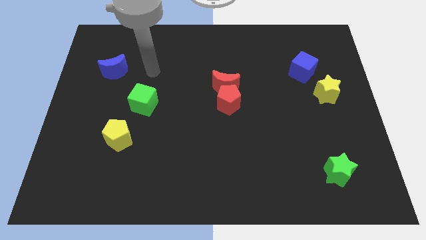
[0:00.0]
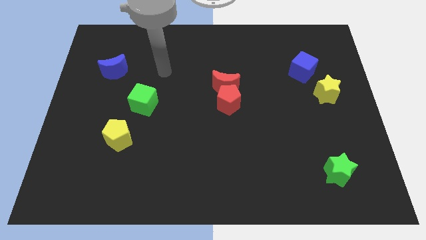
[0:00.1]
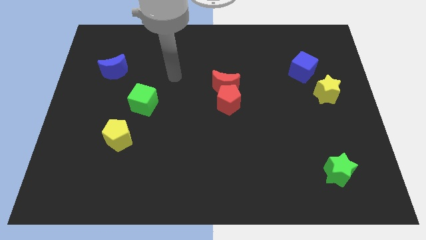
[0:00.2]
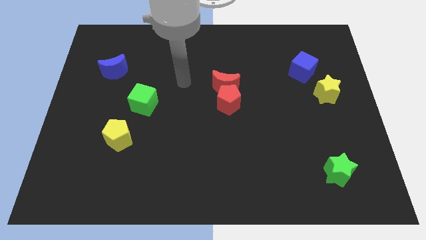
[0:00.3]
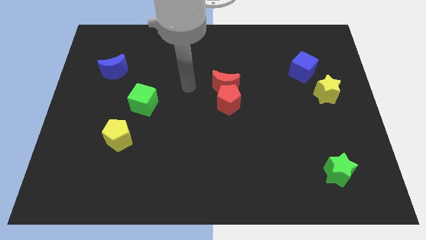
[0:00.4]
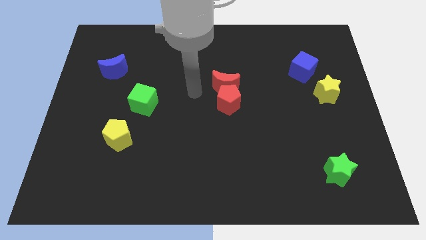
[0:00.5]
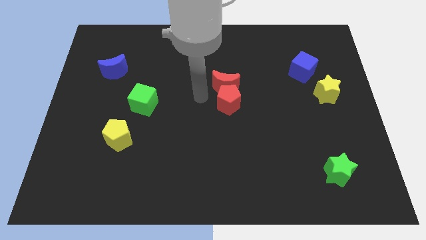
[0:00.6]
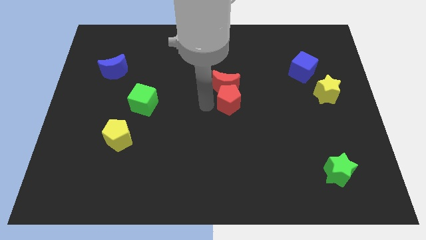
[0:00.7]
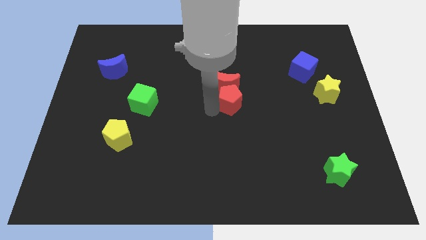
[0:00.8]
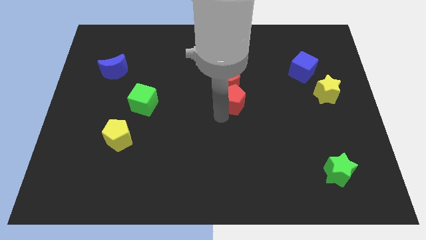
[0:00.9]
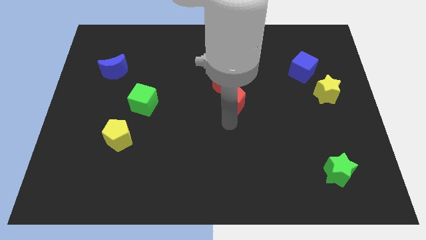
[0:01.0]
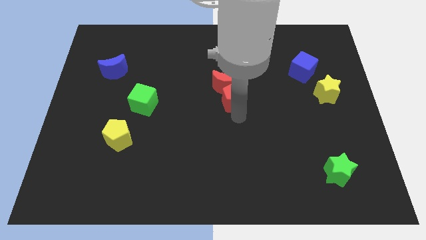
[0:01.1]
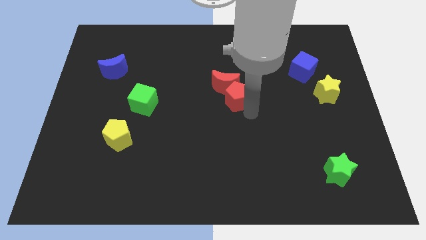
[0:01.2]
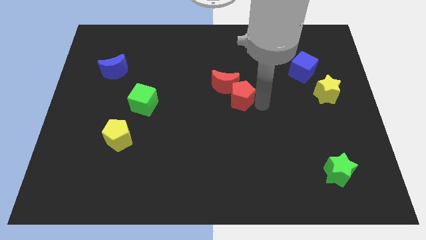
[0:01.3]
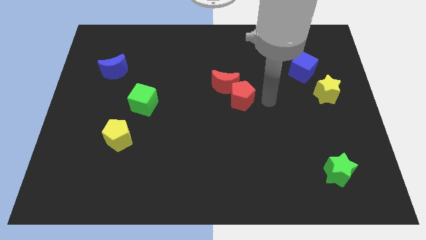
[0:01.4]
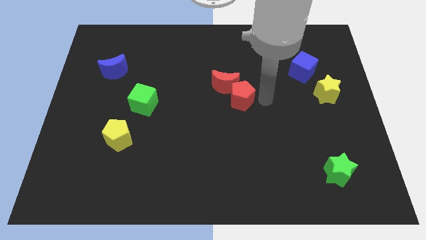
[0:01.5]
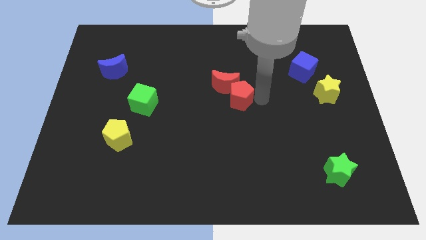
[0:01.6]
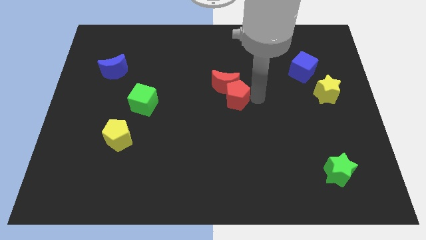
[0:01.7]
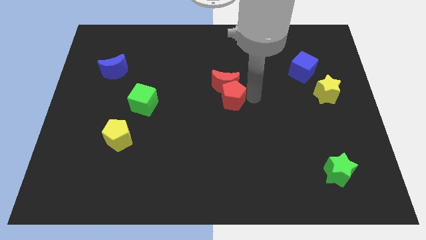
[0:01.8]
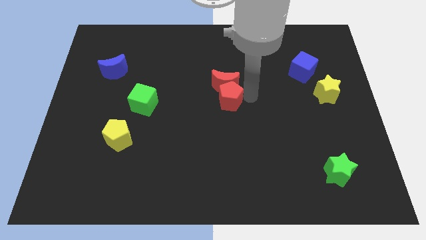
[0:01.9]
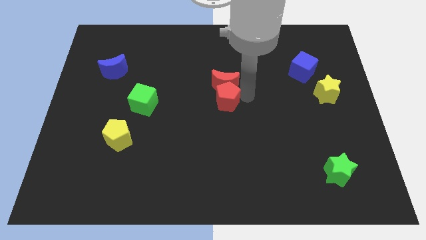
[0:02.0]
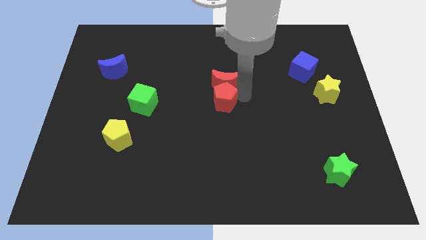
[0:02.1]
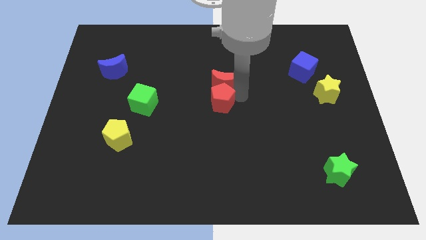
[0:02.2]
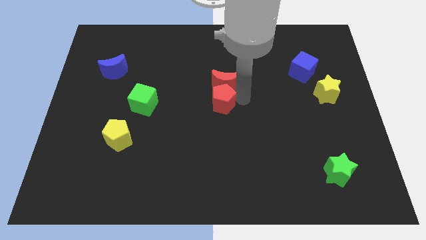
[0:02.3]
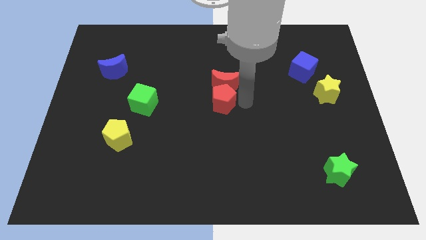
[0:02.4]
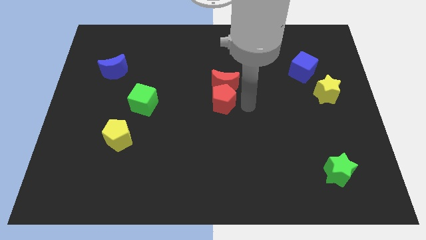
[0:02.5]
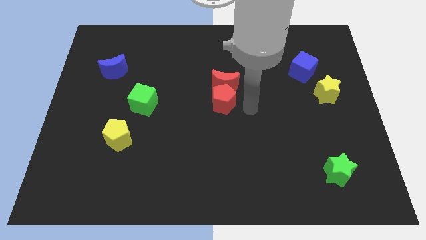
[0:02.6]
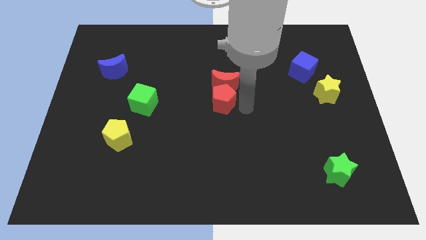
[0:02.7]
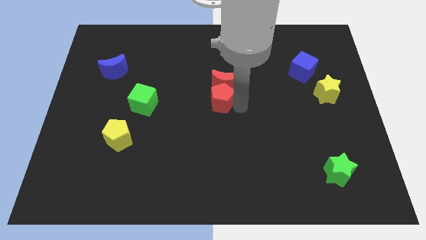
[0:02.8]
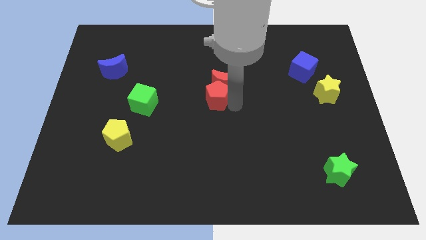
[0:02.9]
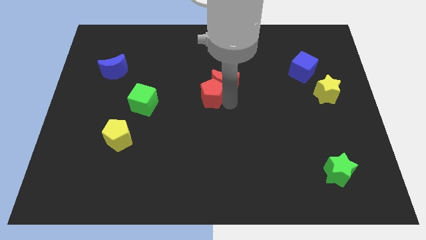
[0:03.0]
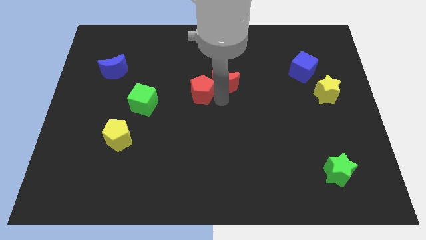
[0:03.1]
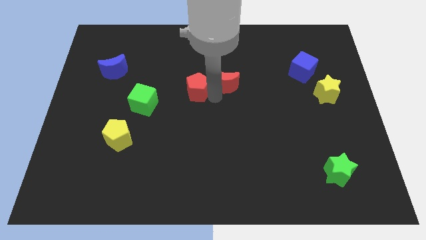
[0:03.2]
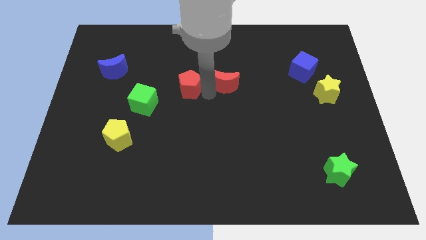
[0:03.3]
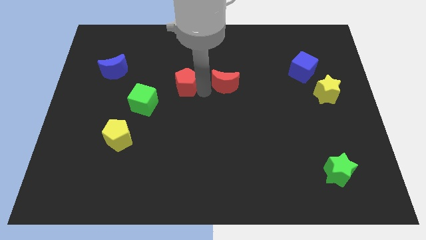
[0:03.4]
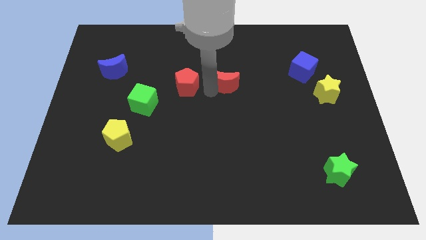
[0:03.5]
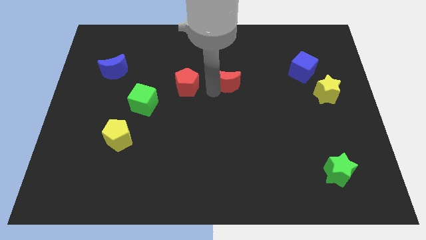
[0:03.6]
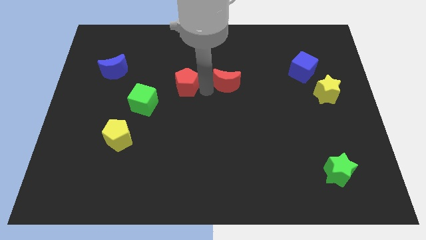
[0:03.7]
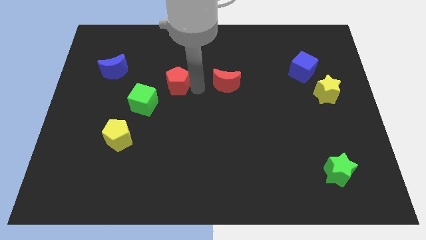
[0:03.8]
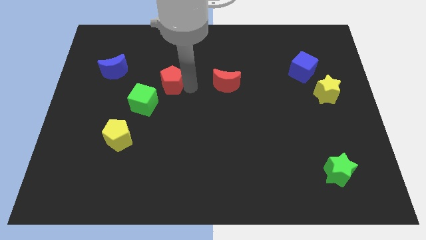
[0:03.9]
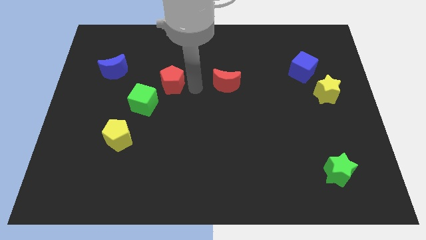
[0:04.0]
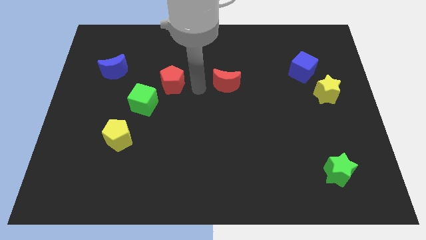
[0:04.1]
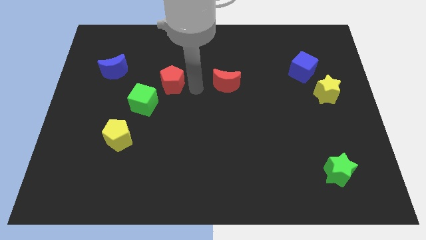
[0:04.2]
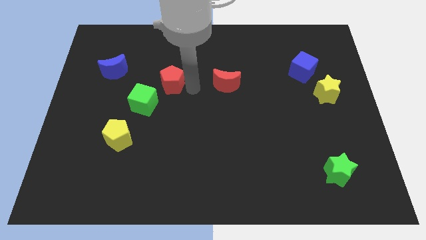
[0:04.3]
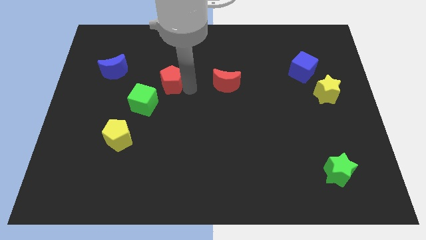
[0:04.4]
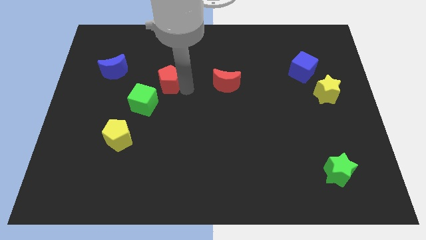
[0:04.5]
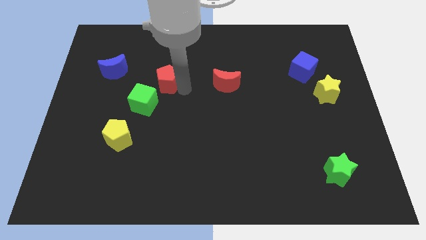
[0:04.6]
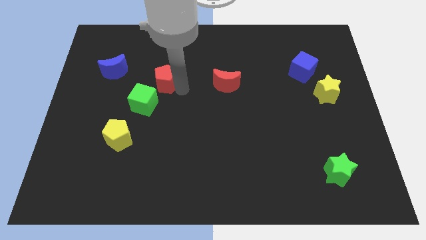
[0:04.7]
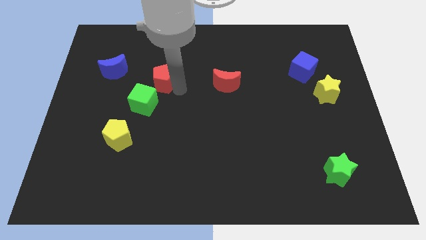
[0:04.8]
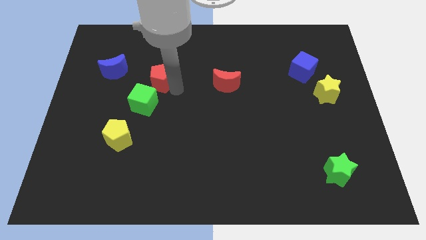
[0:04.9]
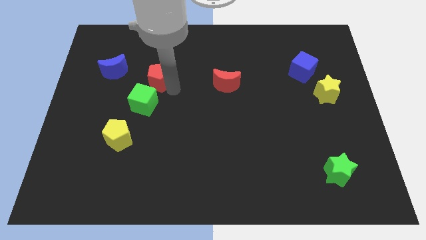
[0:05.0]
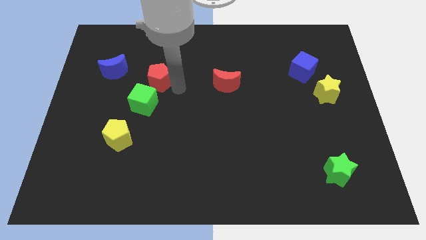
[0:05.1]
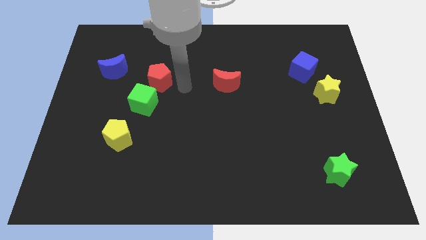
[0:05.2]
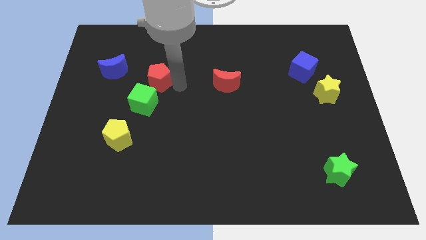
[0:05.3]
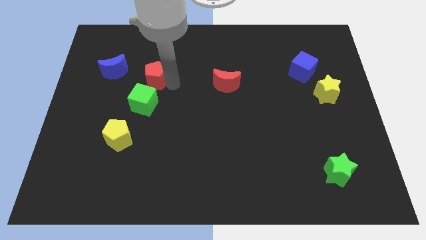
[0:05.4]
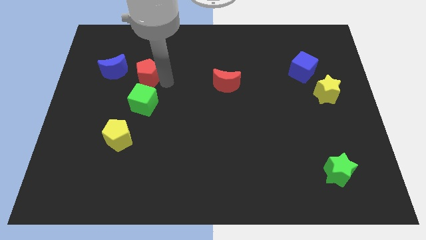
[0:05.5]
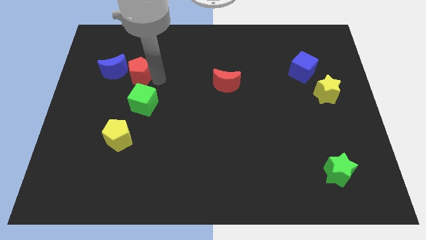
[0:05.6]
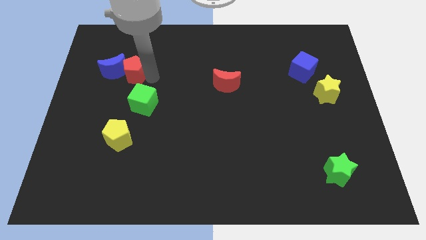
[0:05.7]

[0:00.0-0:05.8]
put the red pentagon close to the blue moon

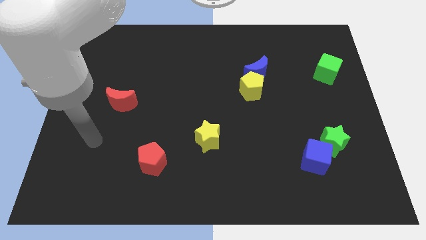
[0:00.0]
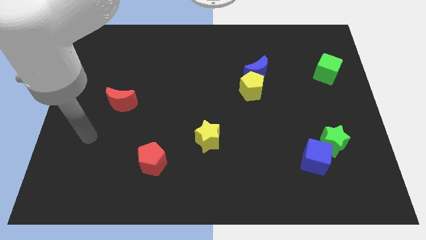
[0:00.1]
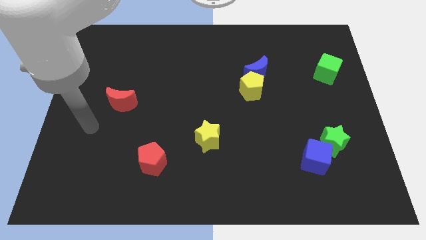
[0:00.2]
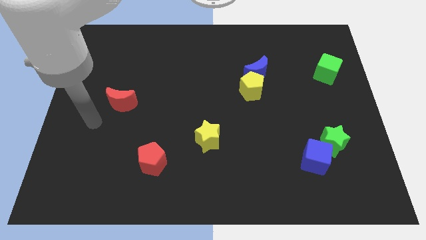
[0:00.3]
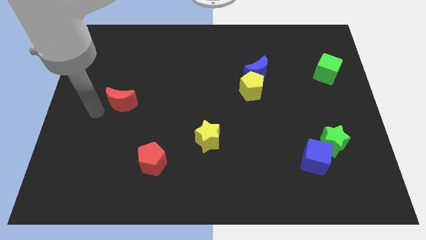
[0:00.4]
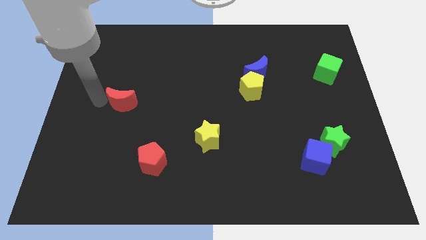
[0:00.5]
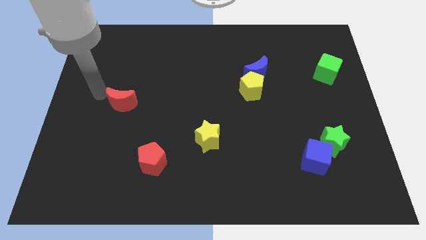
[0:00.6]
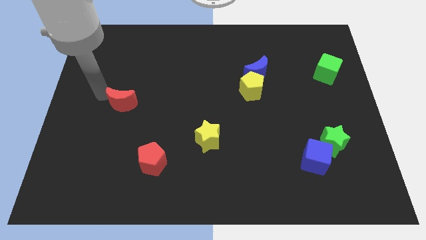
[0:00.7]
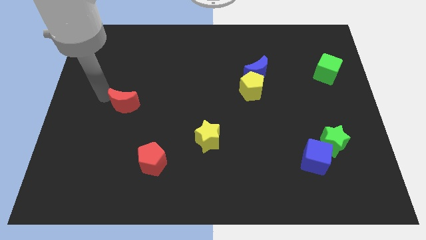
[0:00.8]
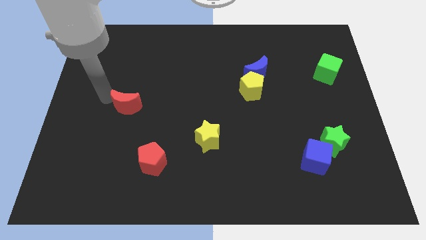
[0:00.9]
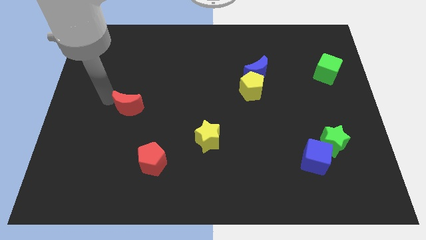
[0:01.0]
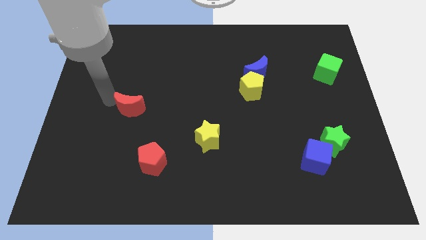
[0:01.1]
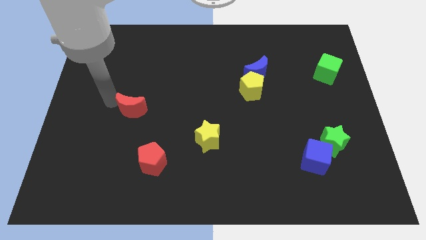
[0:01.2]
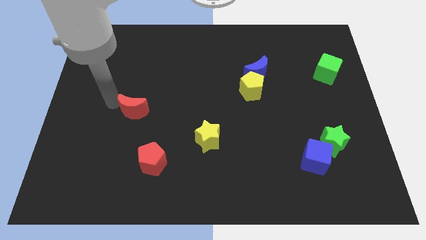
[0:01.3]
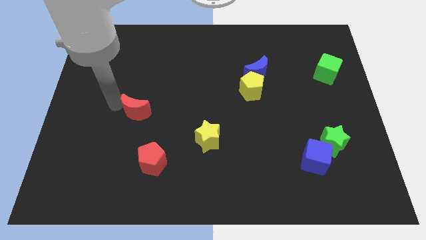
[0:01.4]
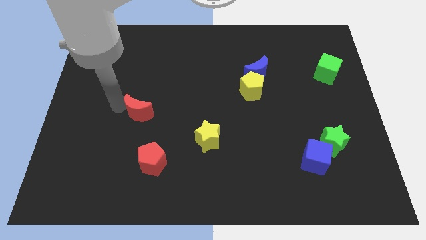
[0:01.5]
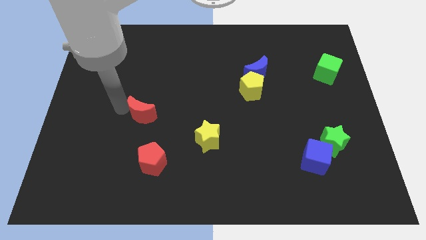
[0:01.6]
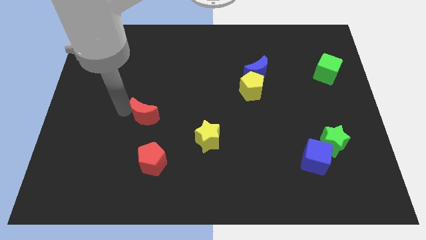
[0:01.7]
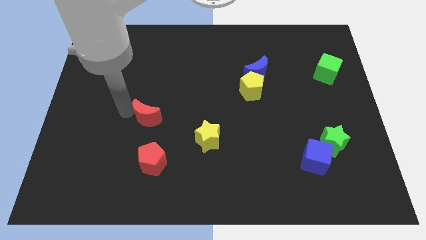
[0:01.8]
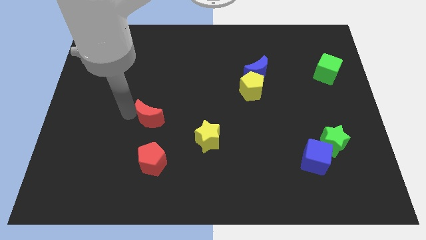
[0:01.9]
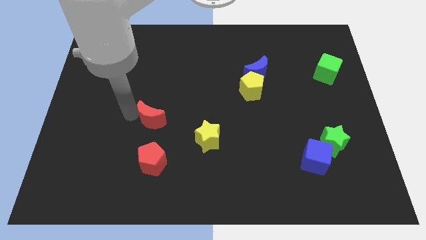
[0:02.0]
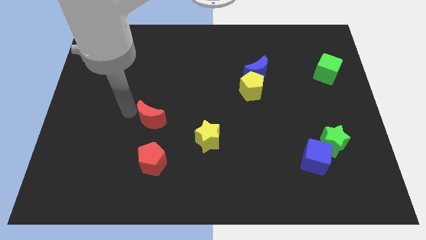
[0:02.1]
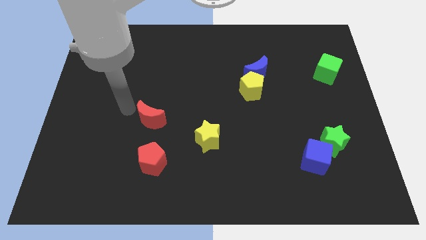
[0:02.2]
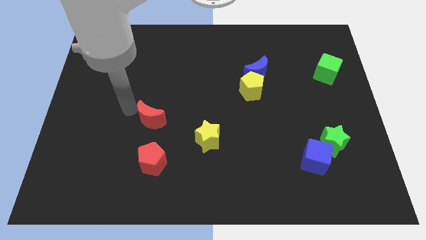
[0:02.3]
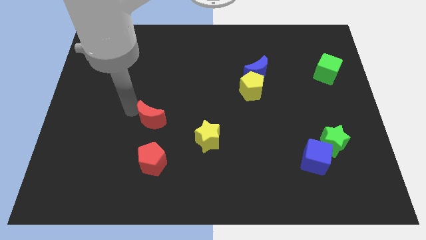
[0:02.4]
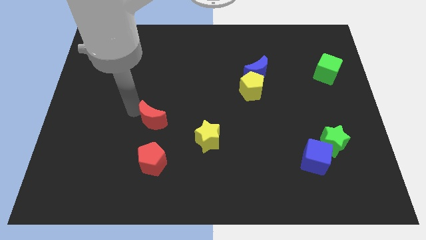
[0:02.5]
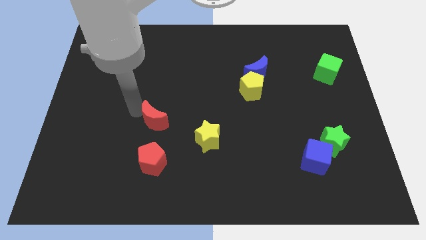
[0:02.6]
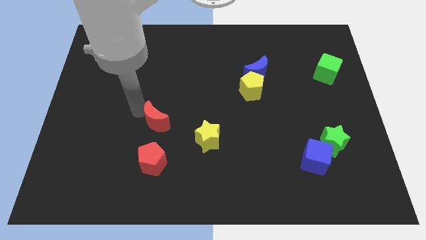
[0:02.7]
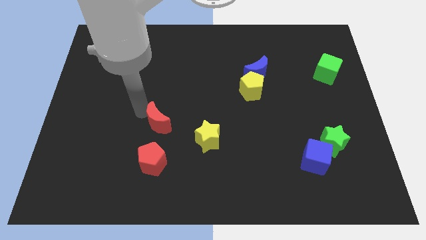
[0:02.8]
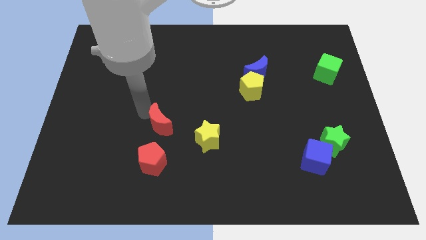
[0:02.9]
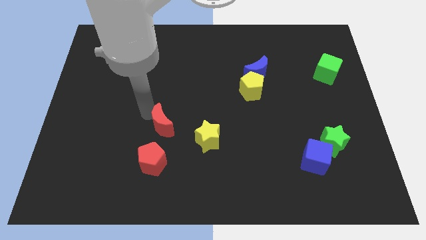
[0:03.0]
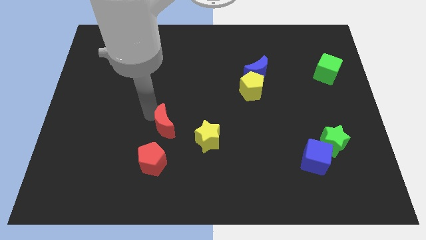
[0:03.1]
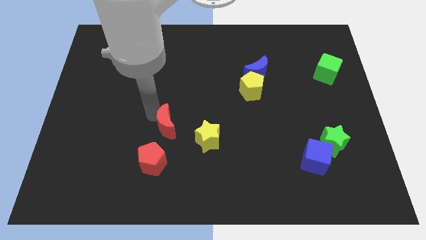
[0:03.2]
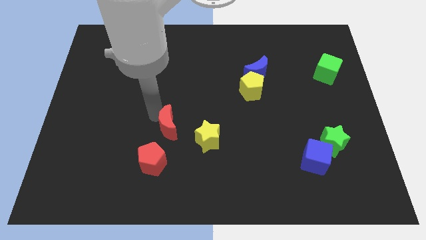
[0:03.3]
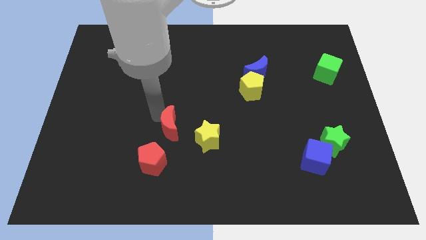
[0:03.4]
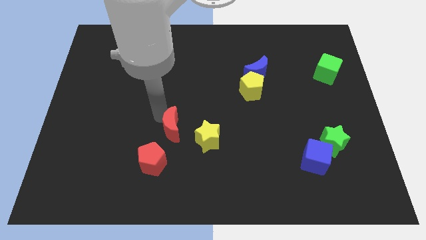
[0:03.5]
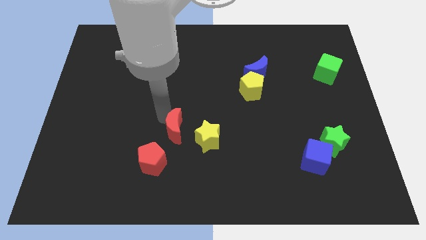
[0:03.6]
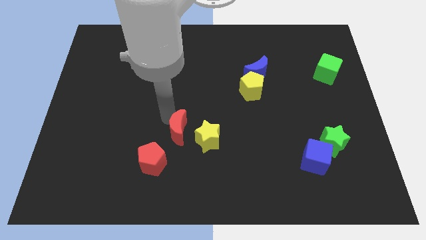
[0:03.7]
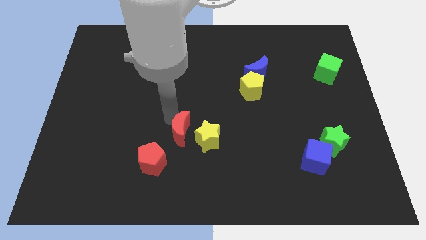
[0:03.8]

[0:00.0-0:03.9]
push the red moon next to the yellow star
